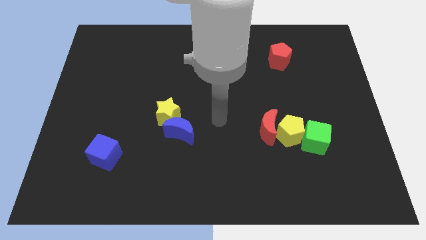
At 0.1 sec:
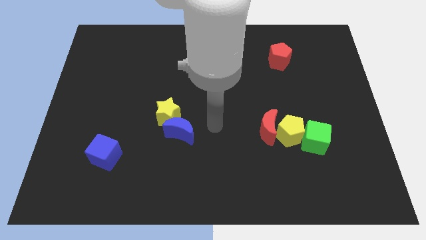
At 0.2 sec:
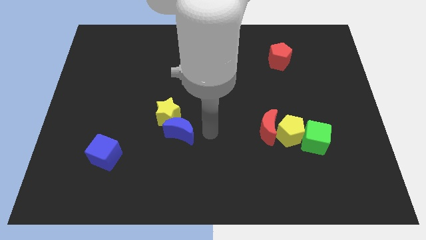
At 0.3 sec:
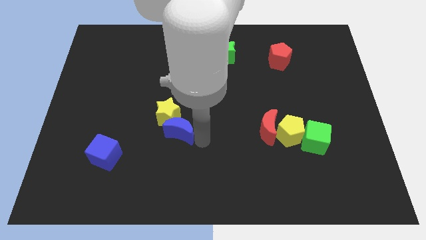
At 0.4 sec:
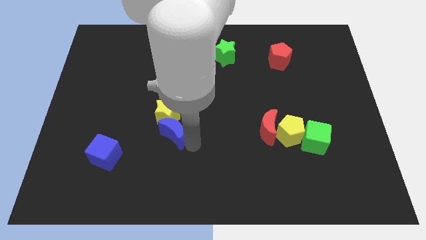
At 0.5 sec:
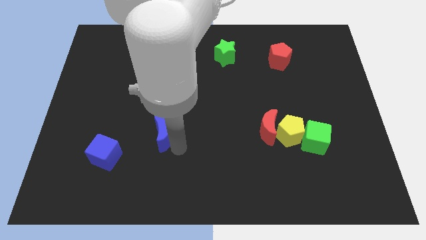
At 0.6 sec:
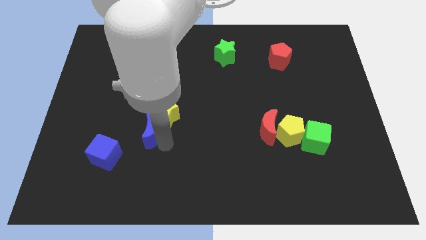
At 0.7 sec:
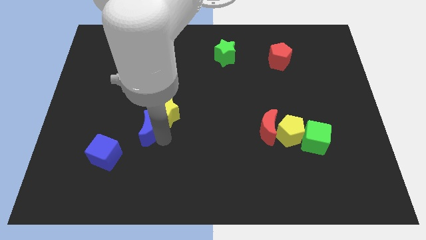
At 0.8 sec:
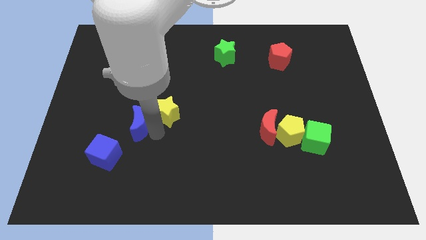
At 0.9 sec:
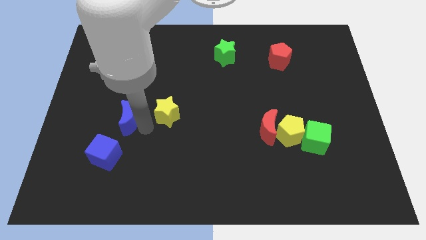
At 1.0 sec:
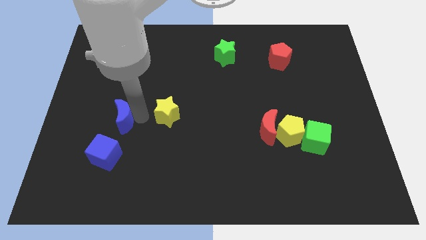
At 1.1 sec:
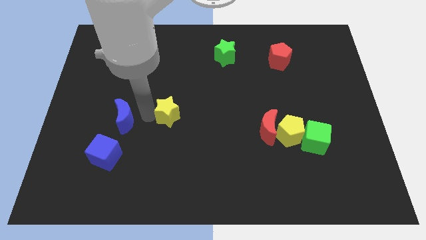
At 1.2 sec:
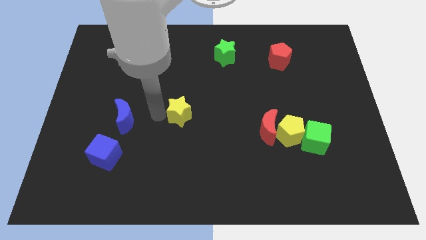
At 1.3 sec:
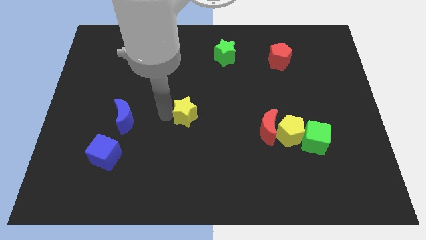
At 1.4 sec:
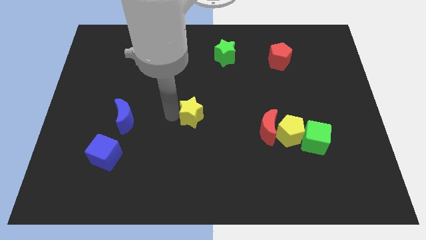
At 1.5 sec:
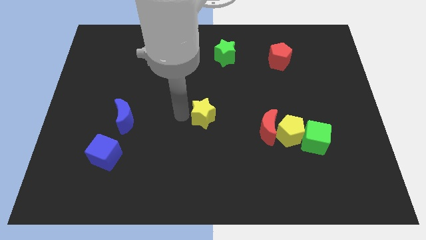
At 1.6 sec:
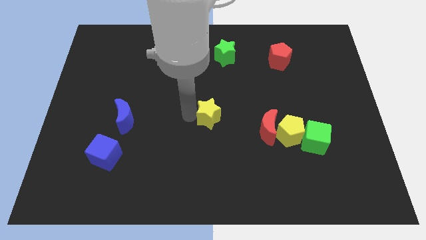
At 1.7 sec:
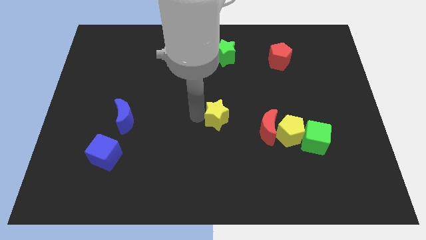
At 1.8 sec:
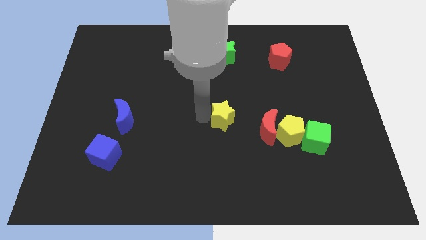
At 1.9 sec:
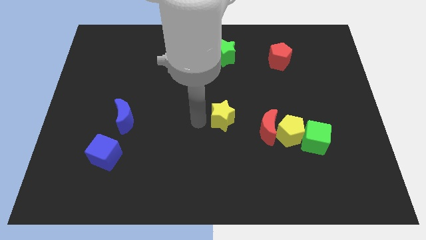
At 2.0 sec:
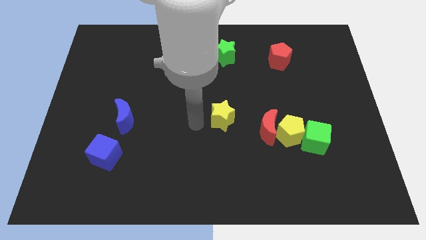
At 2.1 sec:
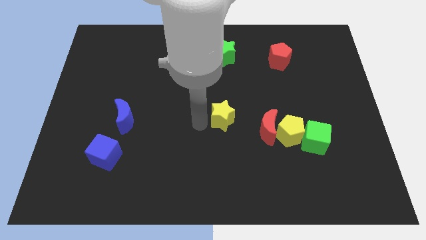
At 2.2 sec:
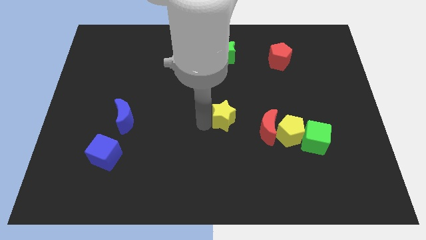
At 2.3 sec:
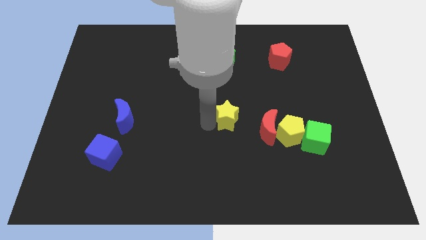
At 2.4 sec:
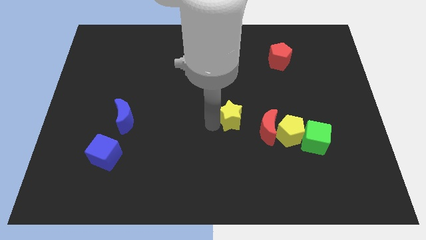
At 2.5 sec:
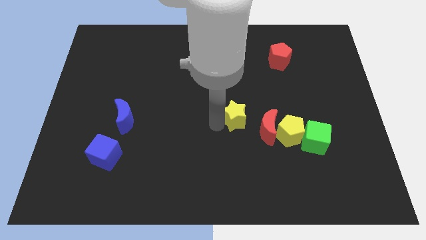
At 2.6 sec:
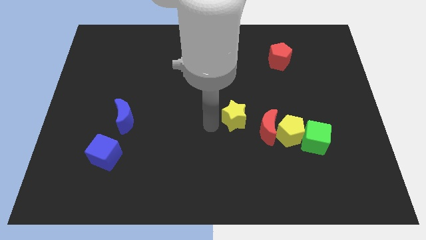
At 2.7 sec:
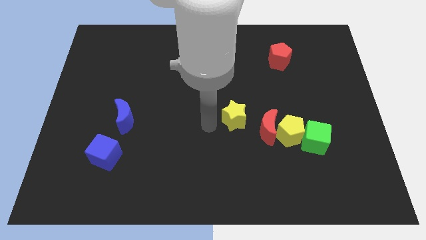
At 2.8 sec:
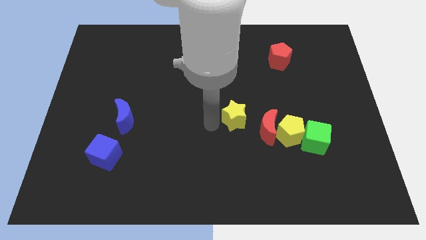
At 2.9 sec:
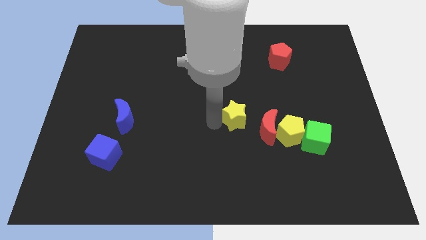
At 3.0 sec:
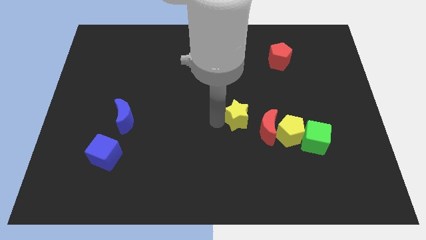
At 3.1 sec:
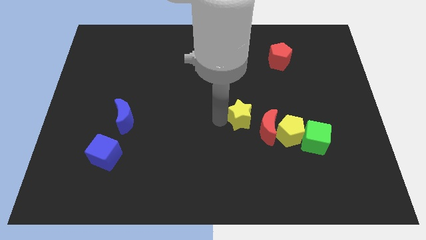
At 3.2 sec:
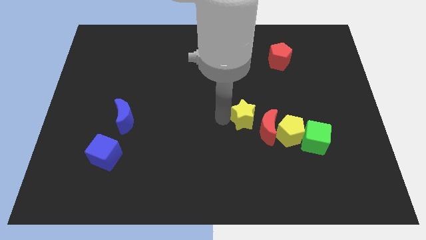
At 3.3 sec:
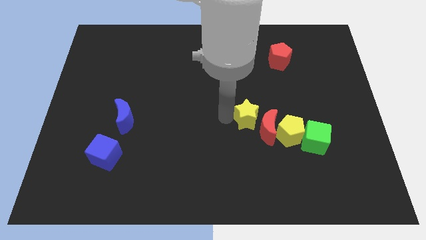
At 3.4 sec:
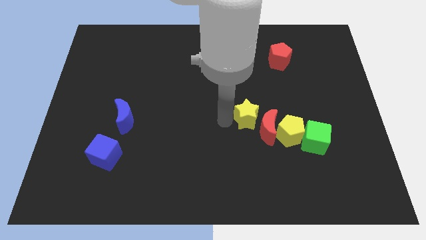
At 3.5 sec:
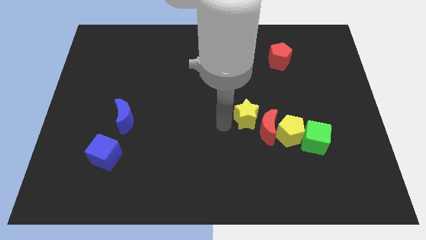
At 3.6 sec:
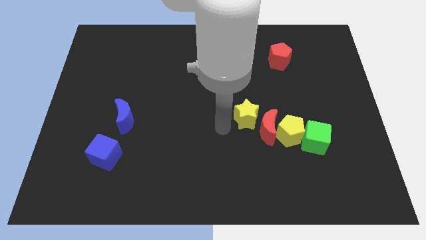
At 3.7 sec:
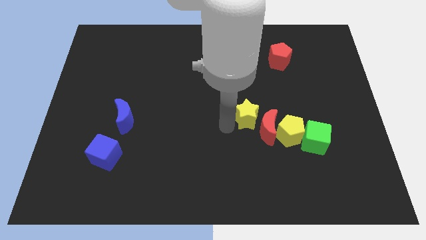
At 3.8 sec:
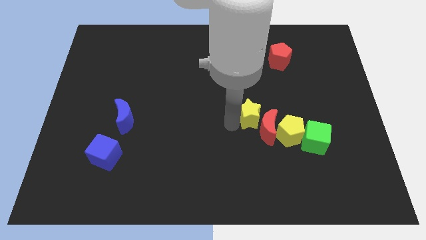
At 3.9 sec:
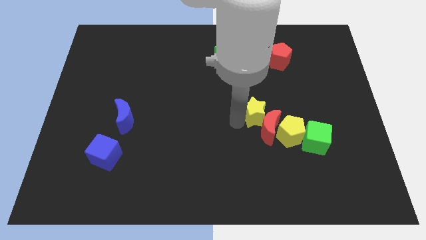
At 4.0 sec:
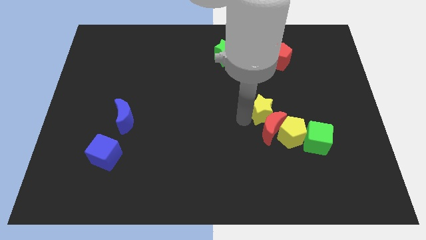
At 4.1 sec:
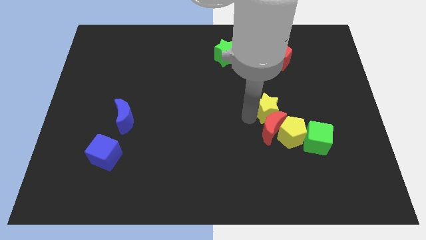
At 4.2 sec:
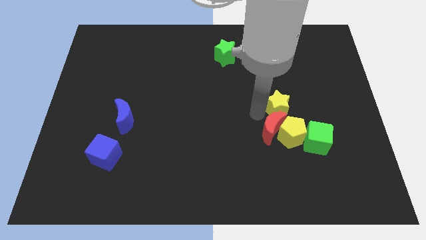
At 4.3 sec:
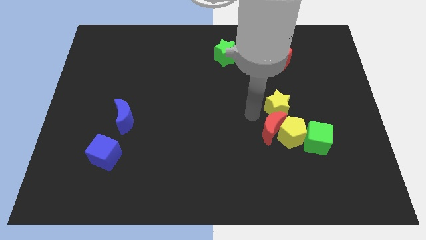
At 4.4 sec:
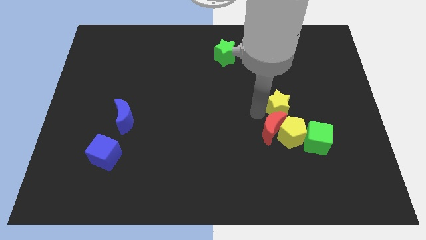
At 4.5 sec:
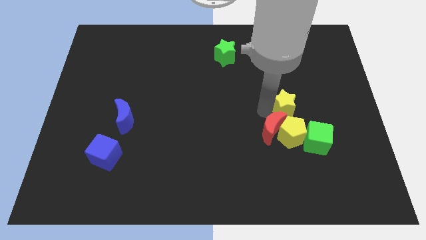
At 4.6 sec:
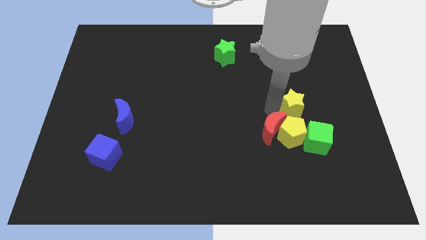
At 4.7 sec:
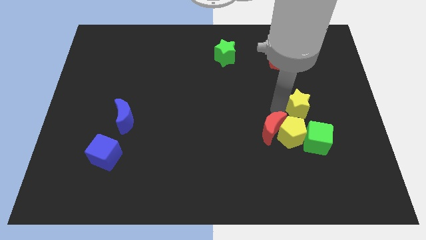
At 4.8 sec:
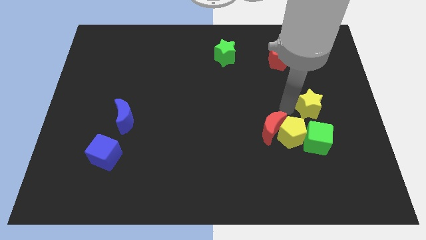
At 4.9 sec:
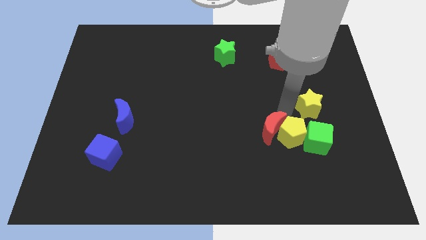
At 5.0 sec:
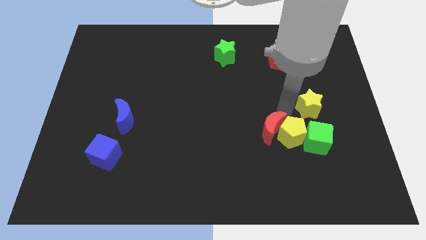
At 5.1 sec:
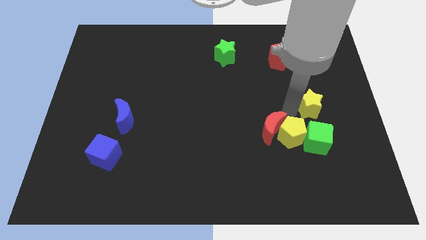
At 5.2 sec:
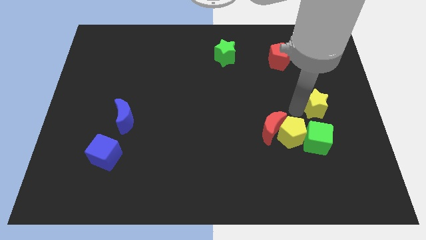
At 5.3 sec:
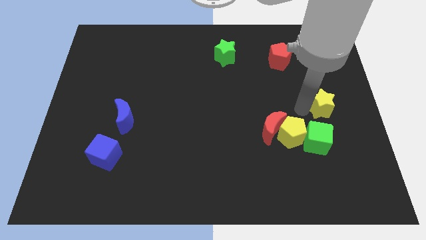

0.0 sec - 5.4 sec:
put the yellow star to the right side
